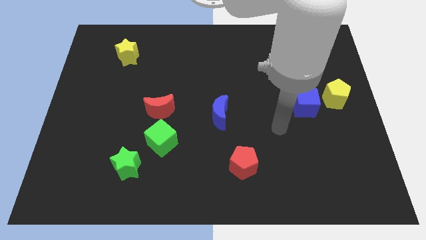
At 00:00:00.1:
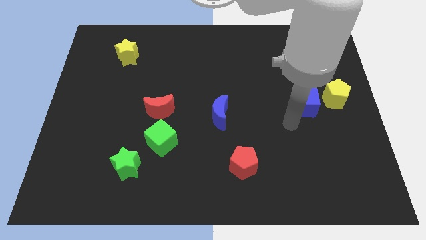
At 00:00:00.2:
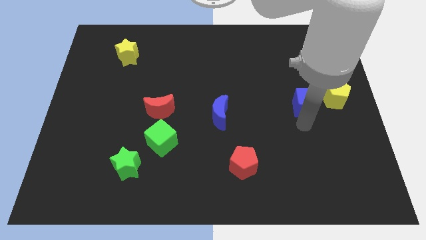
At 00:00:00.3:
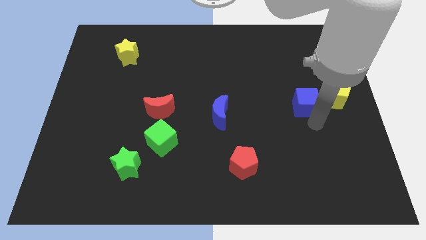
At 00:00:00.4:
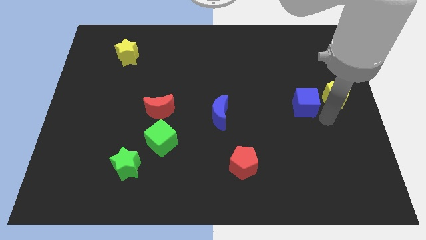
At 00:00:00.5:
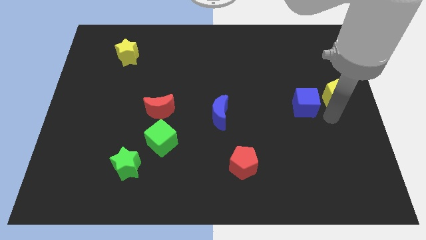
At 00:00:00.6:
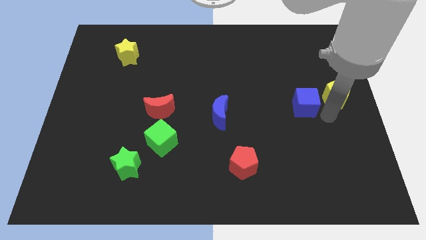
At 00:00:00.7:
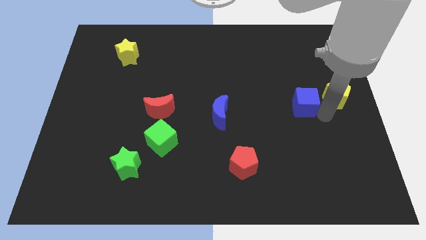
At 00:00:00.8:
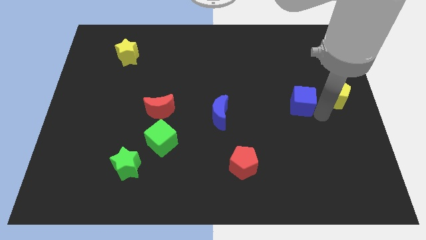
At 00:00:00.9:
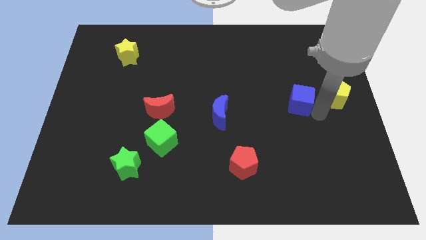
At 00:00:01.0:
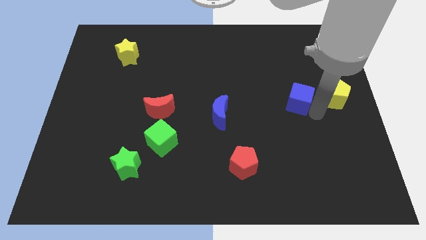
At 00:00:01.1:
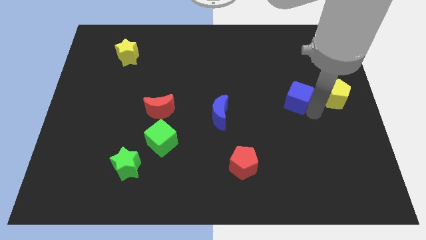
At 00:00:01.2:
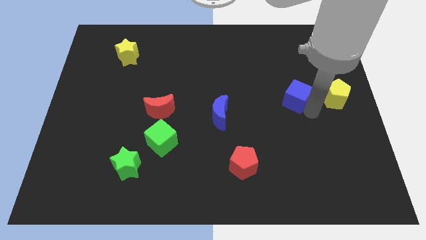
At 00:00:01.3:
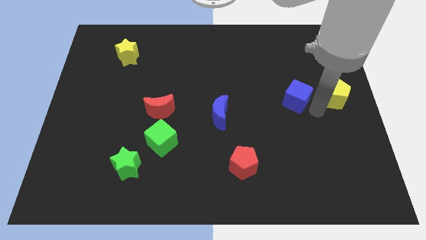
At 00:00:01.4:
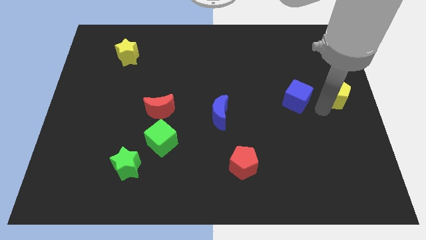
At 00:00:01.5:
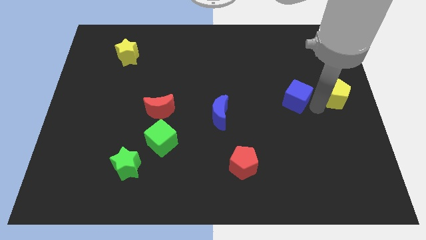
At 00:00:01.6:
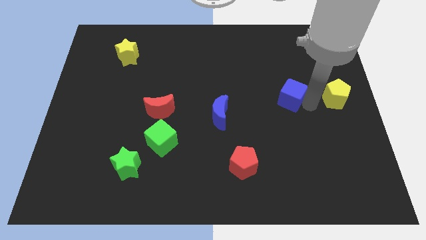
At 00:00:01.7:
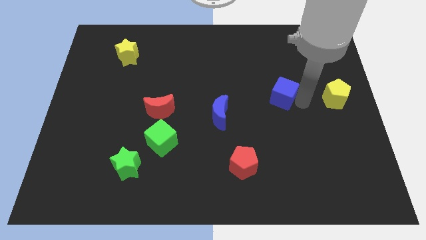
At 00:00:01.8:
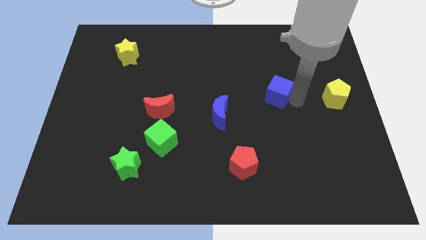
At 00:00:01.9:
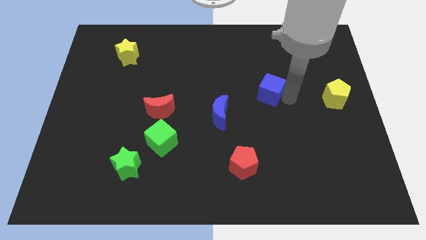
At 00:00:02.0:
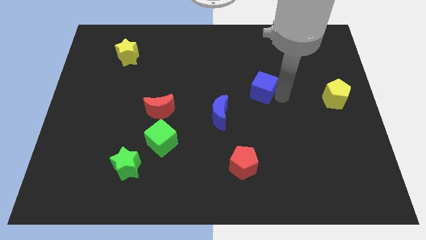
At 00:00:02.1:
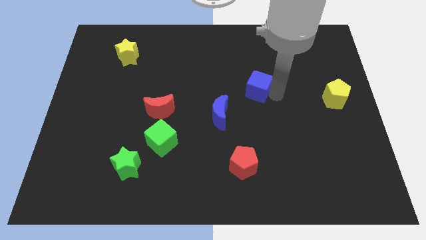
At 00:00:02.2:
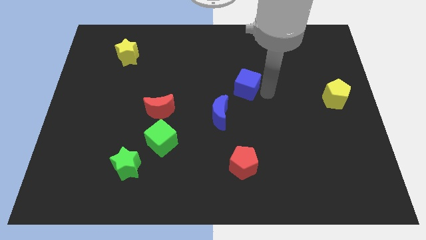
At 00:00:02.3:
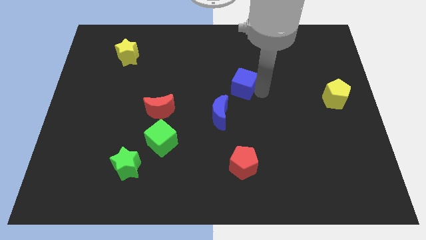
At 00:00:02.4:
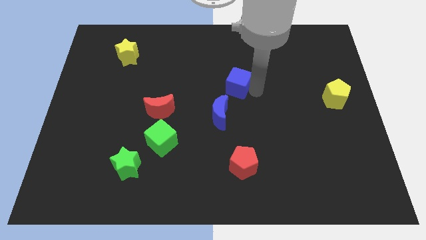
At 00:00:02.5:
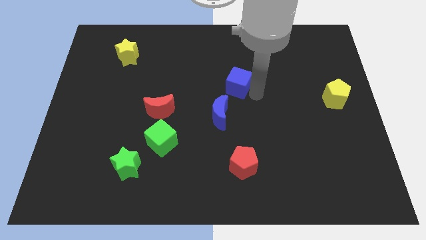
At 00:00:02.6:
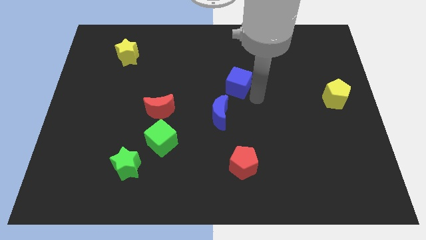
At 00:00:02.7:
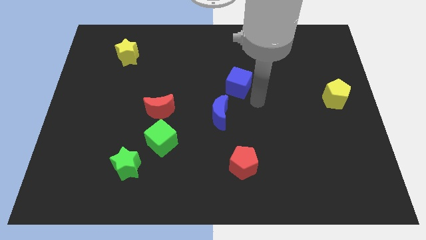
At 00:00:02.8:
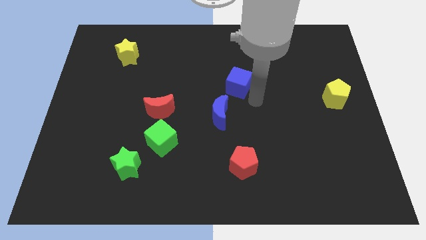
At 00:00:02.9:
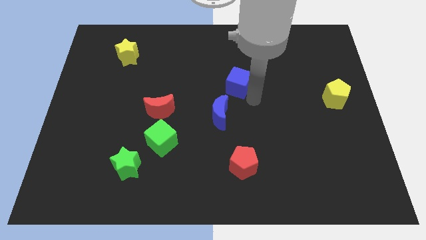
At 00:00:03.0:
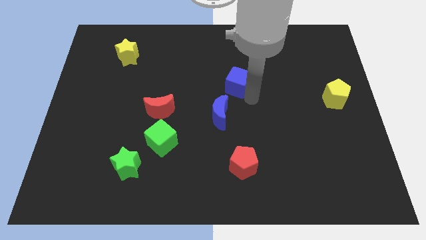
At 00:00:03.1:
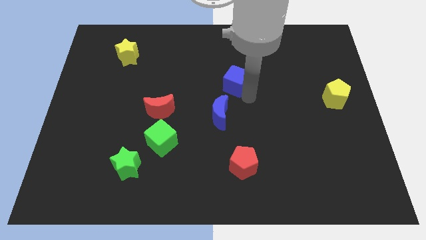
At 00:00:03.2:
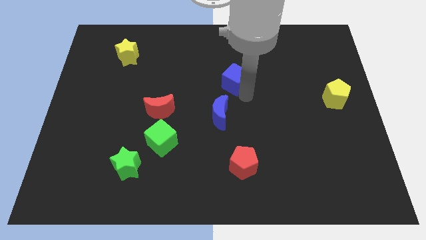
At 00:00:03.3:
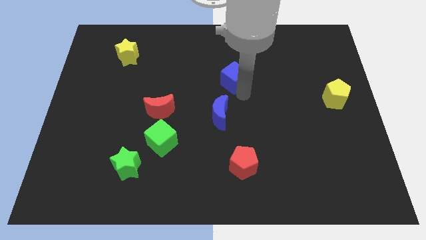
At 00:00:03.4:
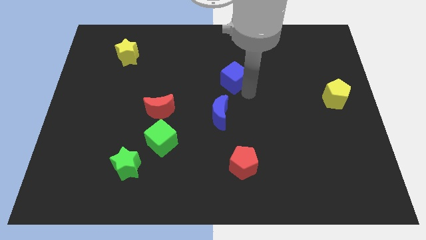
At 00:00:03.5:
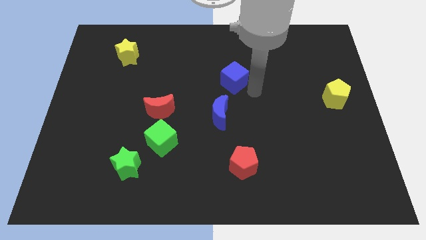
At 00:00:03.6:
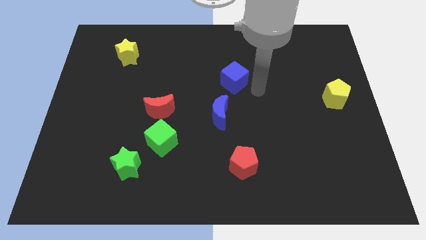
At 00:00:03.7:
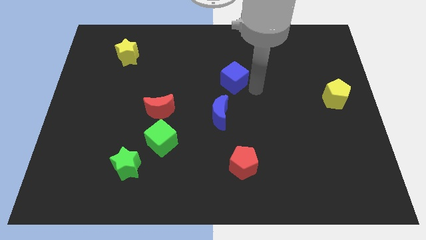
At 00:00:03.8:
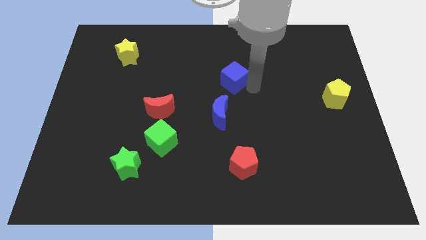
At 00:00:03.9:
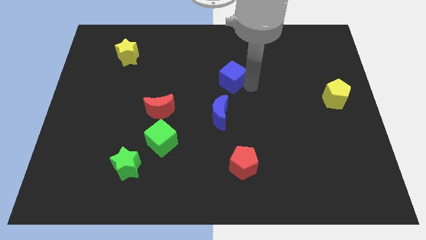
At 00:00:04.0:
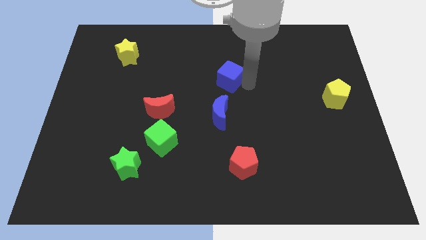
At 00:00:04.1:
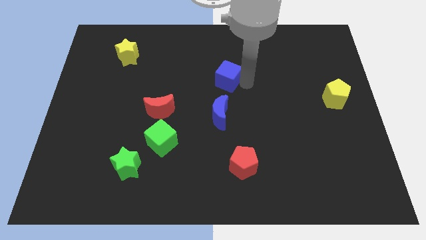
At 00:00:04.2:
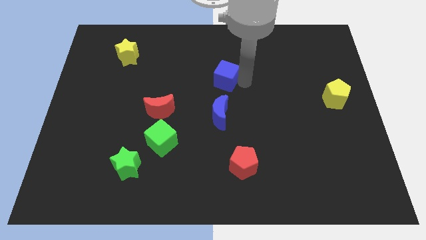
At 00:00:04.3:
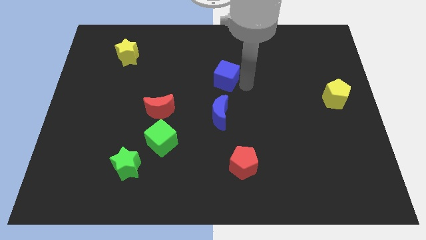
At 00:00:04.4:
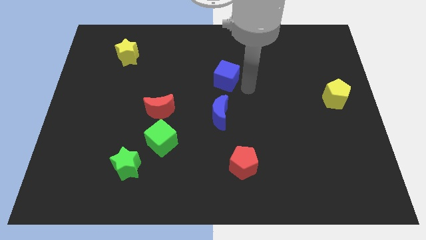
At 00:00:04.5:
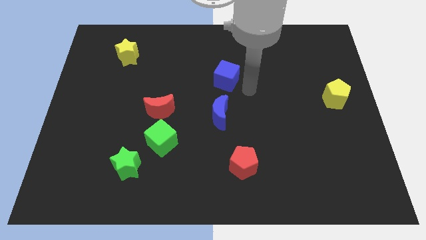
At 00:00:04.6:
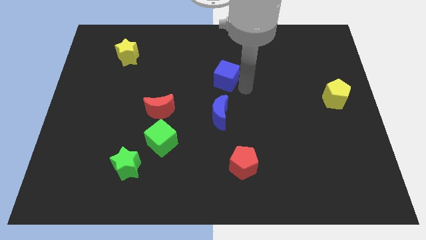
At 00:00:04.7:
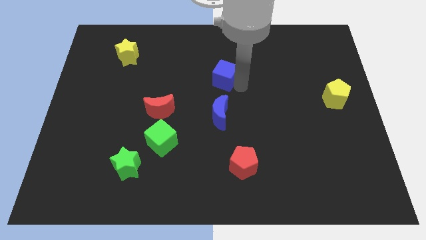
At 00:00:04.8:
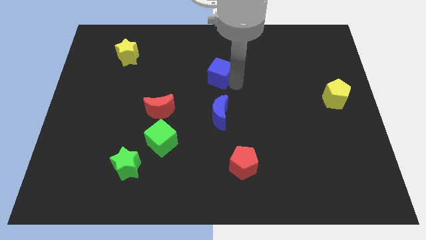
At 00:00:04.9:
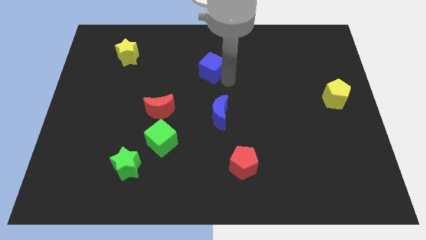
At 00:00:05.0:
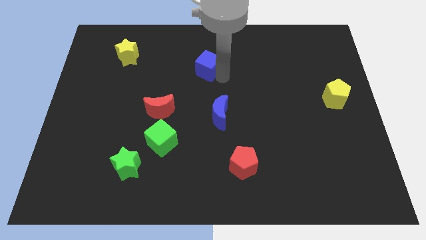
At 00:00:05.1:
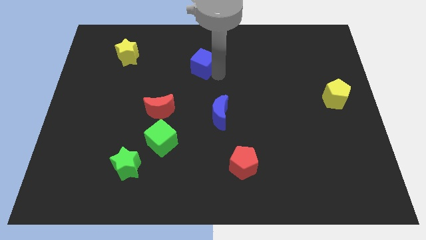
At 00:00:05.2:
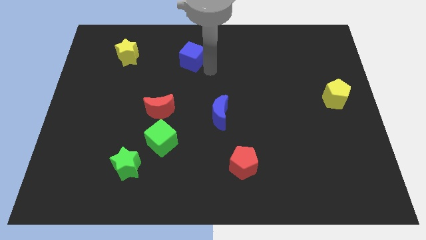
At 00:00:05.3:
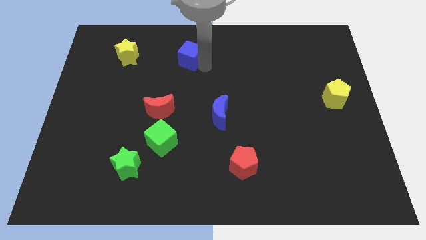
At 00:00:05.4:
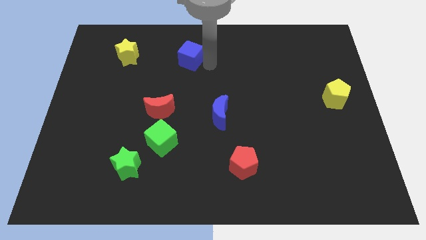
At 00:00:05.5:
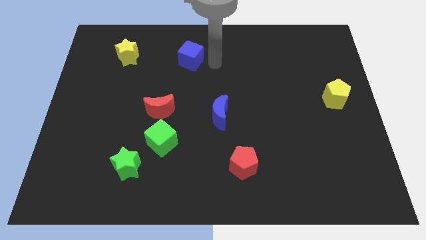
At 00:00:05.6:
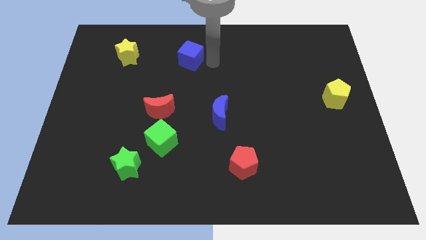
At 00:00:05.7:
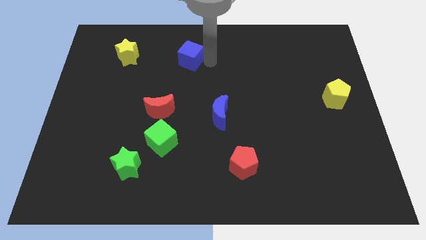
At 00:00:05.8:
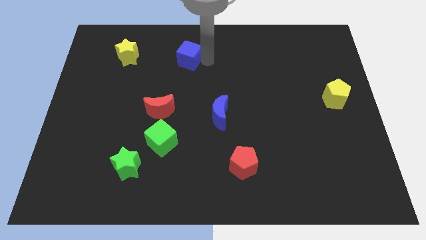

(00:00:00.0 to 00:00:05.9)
push the blue cube just right of the yellow star

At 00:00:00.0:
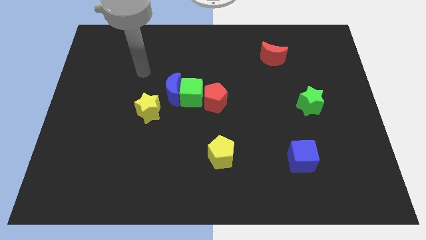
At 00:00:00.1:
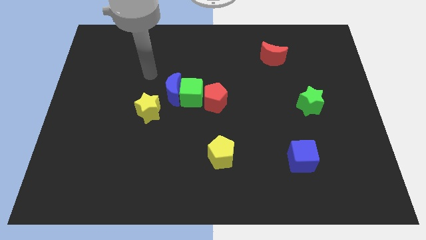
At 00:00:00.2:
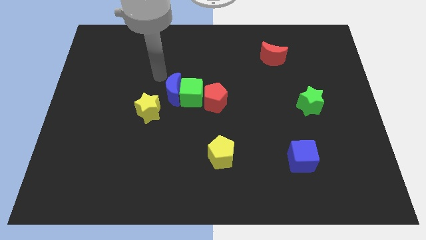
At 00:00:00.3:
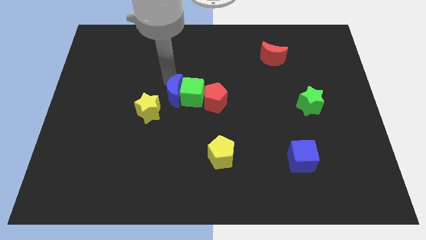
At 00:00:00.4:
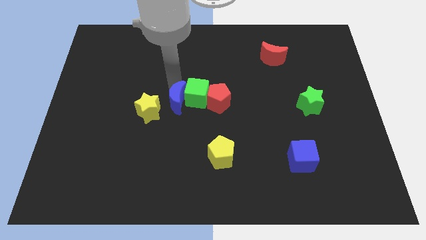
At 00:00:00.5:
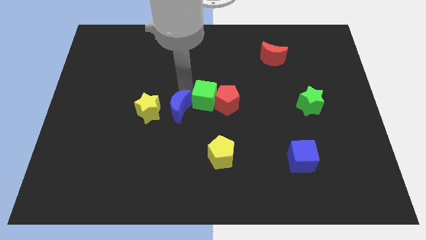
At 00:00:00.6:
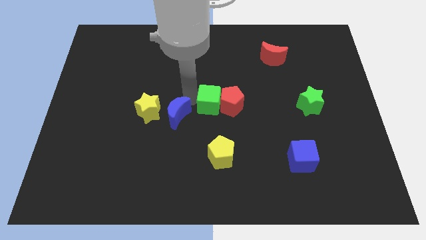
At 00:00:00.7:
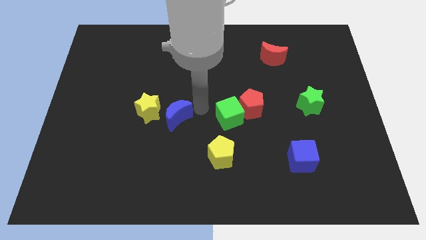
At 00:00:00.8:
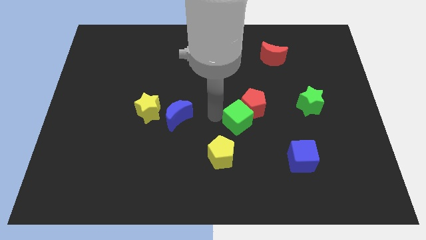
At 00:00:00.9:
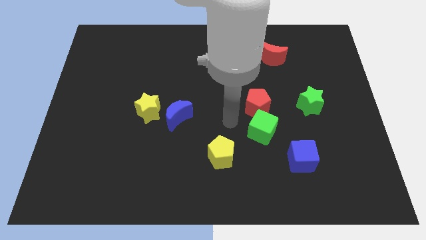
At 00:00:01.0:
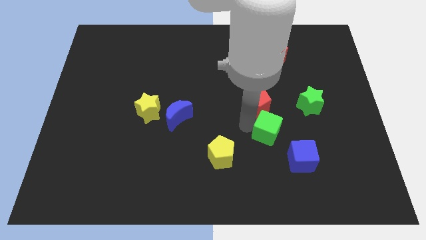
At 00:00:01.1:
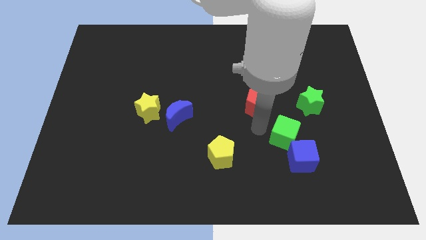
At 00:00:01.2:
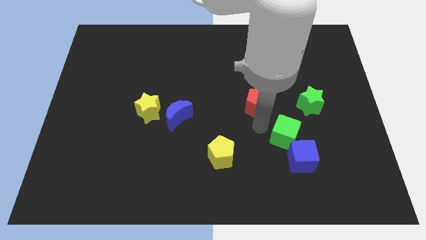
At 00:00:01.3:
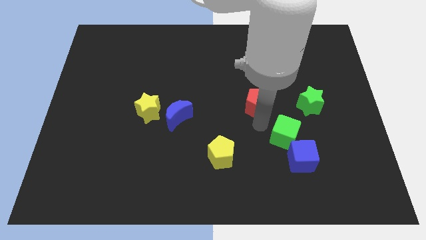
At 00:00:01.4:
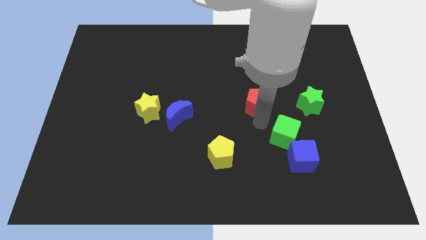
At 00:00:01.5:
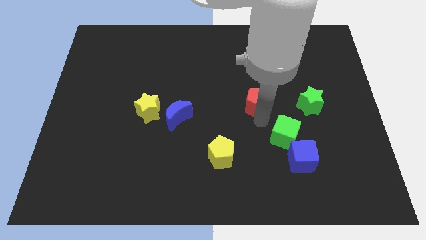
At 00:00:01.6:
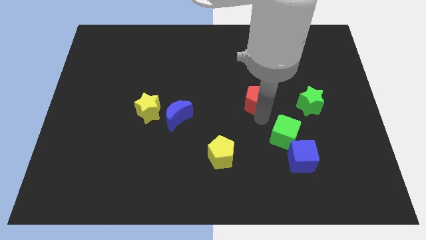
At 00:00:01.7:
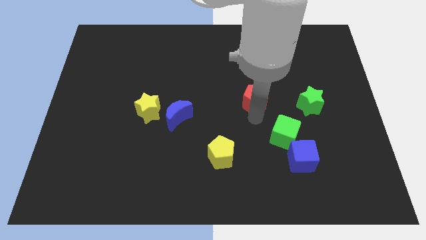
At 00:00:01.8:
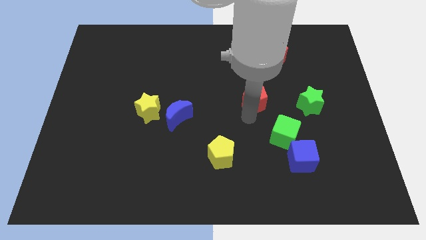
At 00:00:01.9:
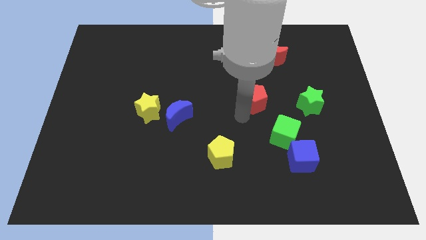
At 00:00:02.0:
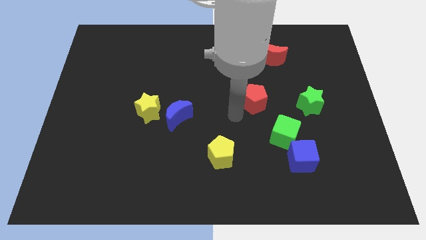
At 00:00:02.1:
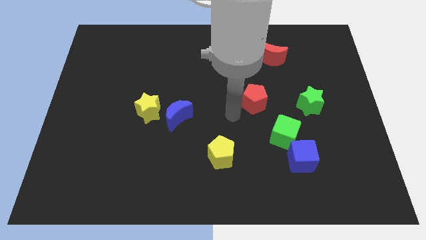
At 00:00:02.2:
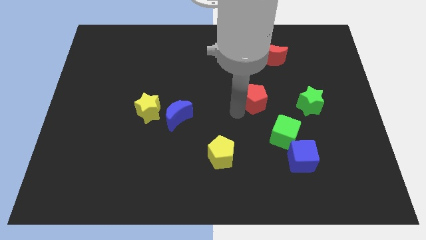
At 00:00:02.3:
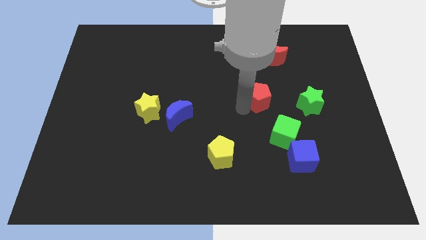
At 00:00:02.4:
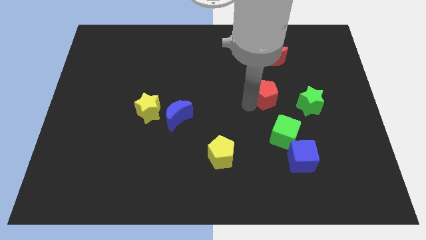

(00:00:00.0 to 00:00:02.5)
put the red pentagon to the bottom side of the red moon
